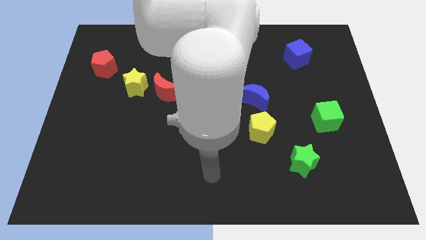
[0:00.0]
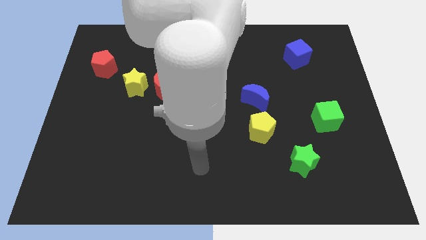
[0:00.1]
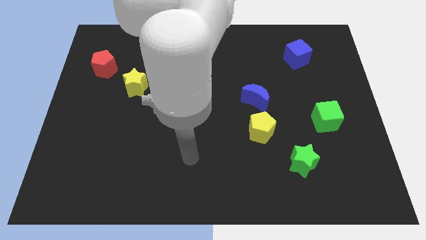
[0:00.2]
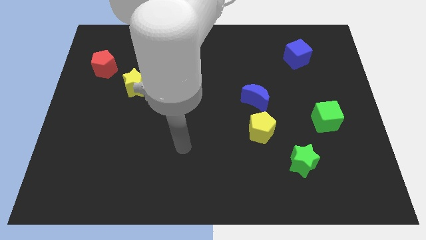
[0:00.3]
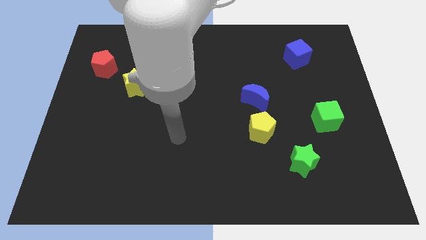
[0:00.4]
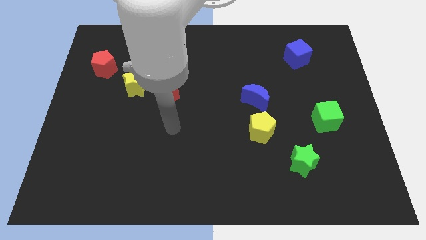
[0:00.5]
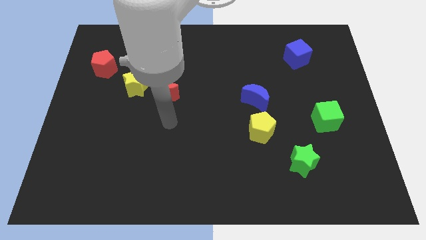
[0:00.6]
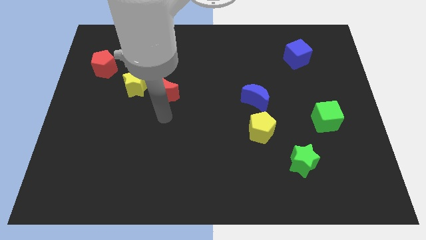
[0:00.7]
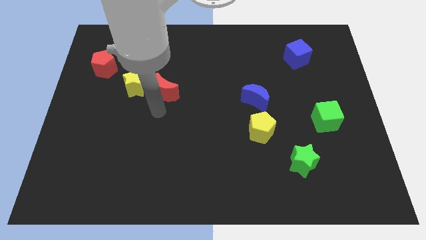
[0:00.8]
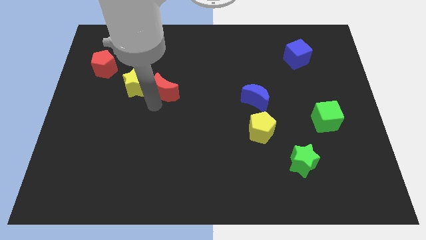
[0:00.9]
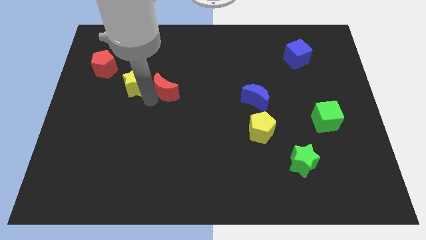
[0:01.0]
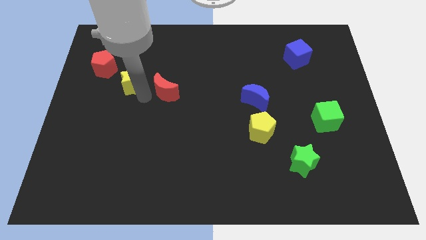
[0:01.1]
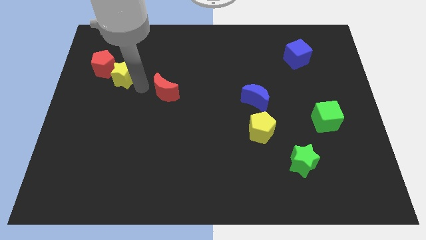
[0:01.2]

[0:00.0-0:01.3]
move the red moon away from the yellow star

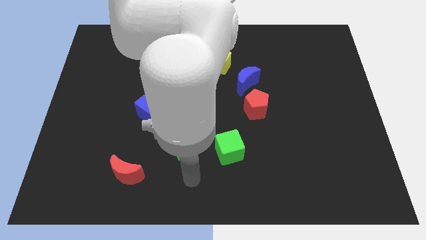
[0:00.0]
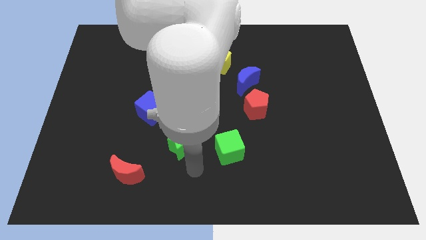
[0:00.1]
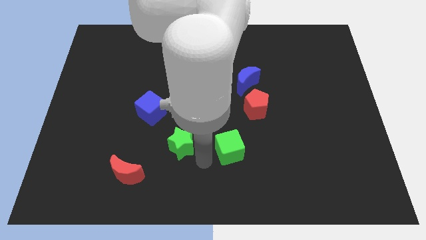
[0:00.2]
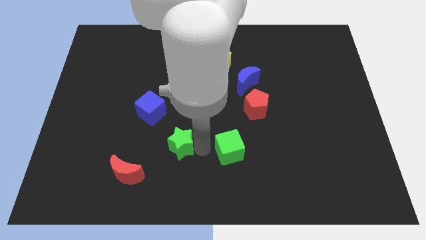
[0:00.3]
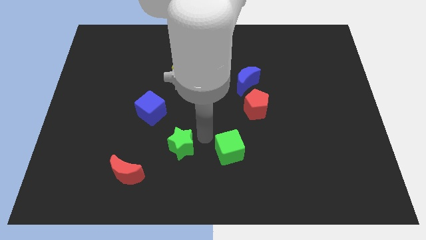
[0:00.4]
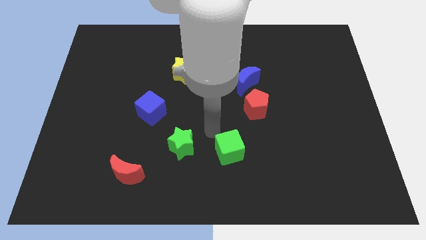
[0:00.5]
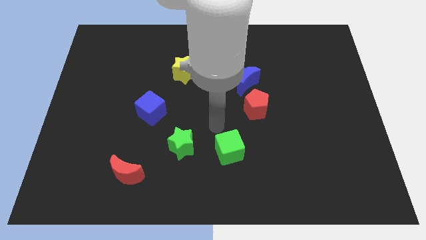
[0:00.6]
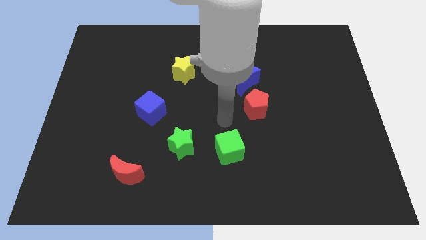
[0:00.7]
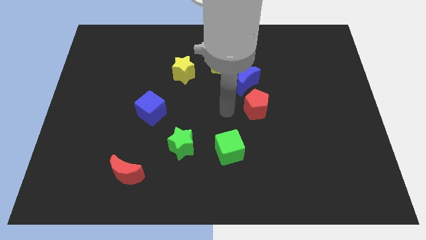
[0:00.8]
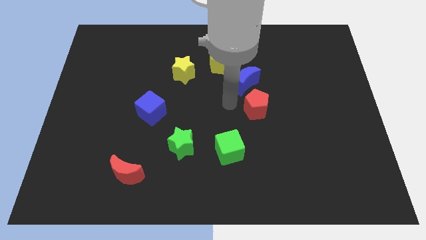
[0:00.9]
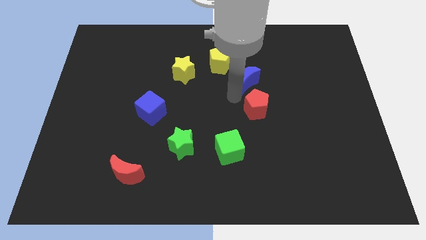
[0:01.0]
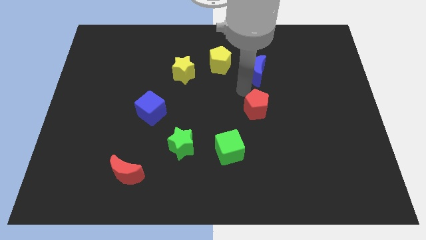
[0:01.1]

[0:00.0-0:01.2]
pull the red pentagon apart from the blue moon

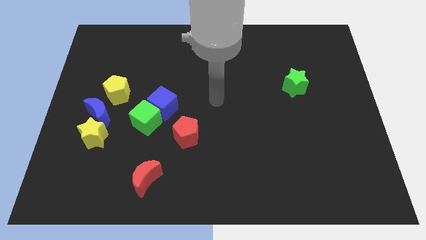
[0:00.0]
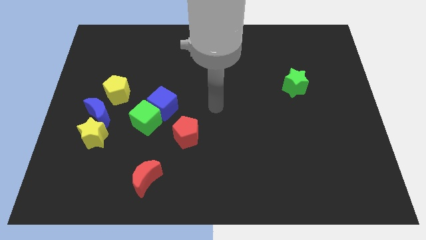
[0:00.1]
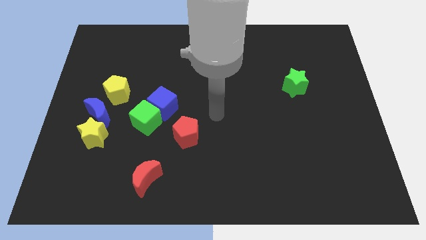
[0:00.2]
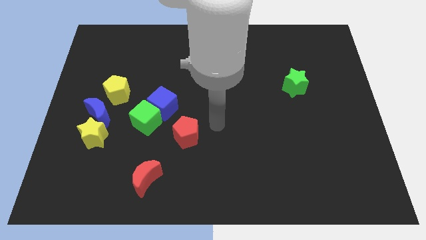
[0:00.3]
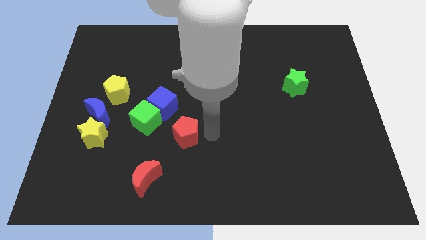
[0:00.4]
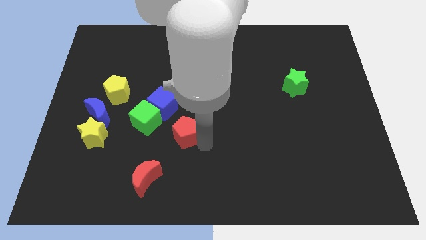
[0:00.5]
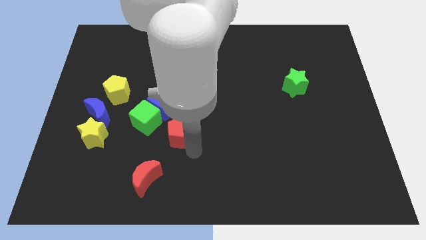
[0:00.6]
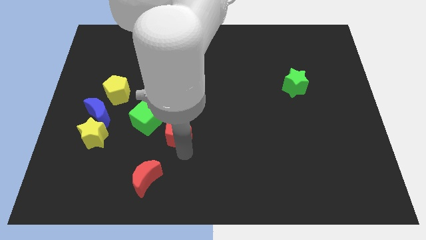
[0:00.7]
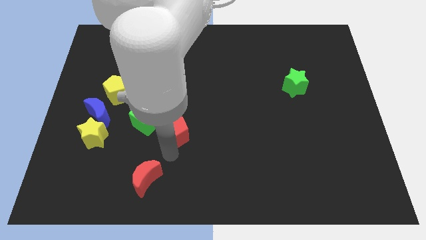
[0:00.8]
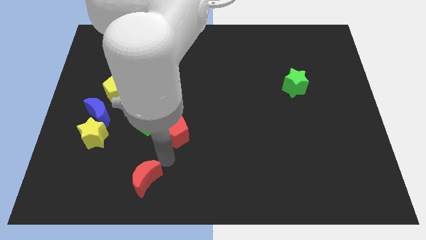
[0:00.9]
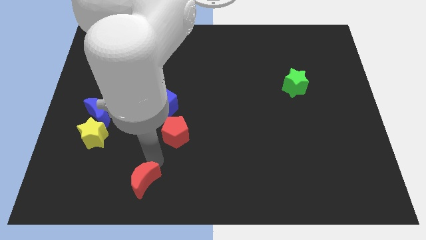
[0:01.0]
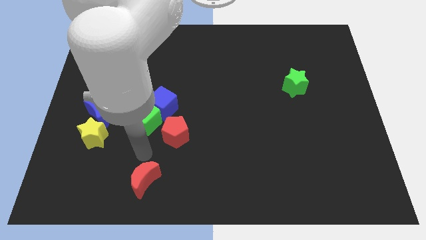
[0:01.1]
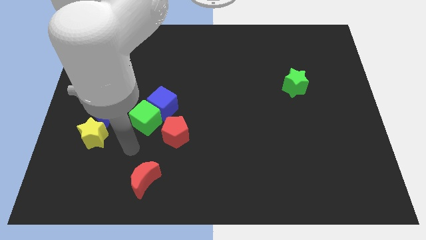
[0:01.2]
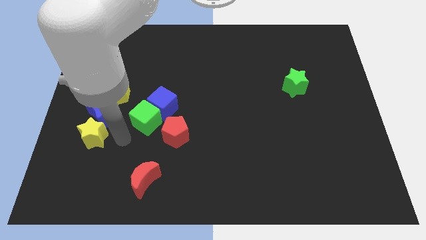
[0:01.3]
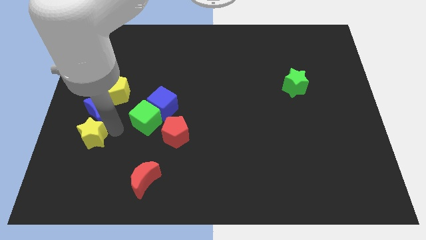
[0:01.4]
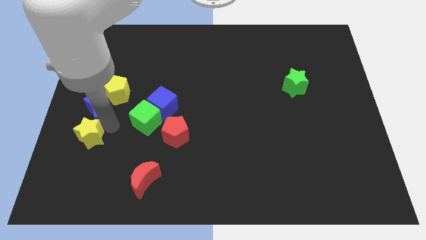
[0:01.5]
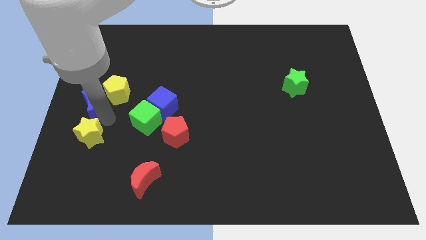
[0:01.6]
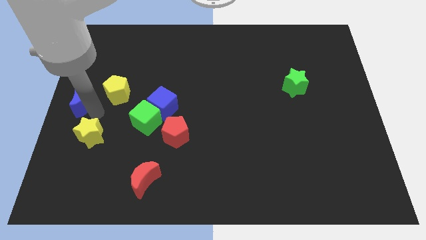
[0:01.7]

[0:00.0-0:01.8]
separate the yellow star from the blue moon

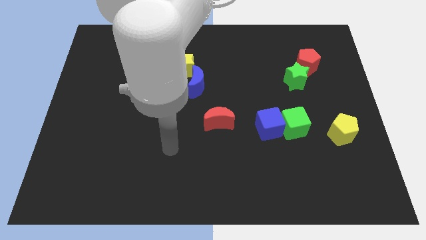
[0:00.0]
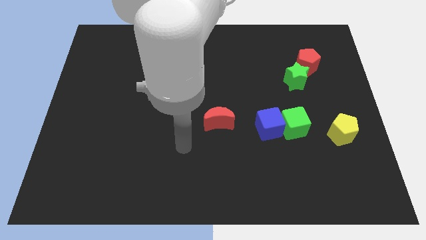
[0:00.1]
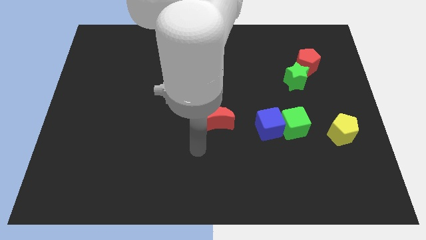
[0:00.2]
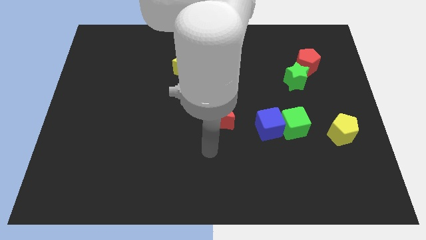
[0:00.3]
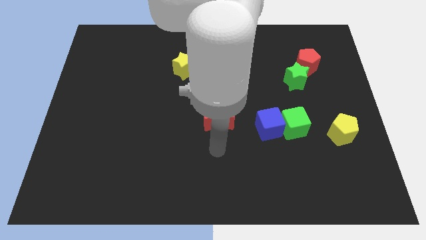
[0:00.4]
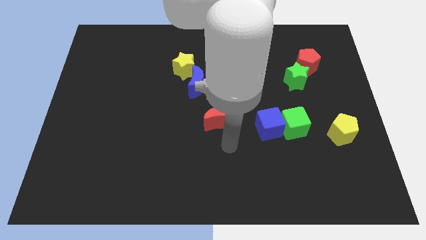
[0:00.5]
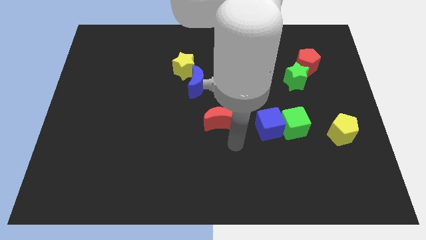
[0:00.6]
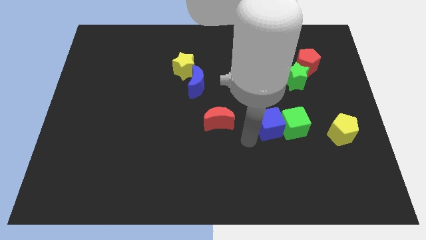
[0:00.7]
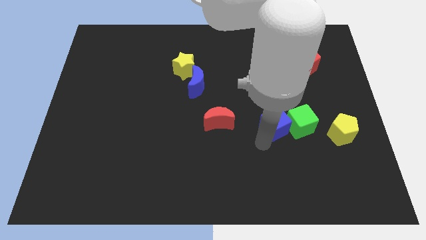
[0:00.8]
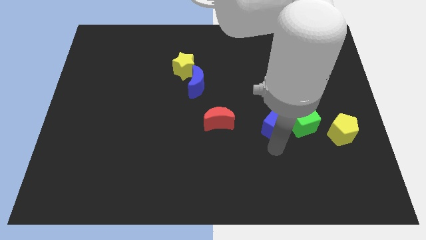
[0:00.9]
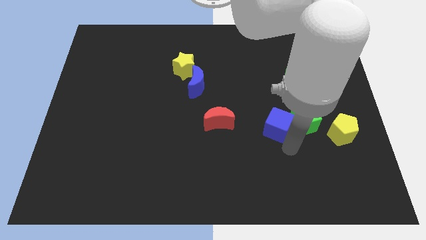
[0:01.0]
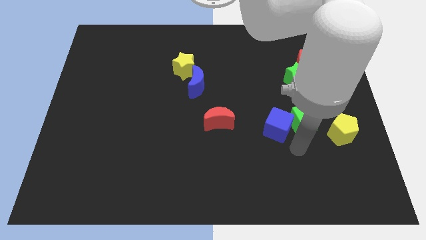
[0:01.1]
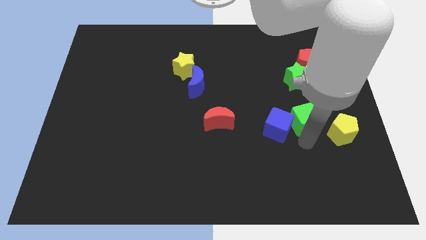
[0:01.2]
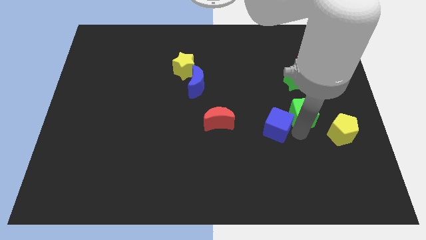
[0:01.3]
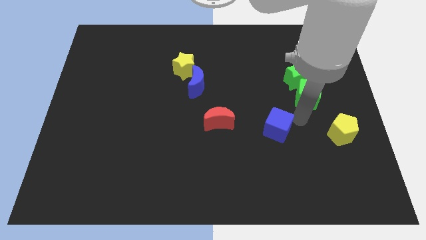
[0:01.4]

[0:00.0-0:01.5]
move the blue cube away from the green cube

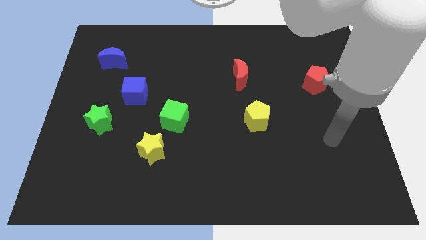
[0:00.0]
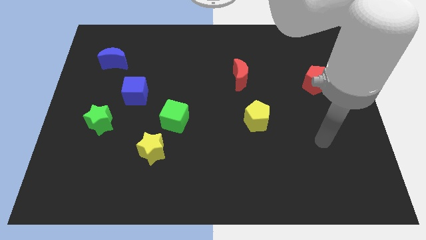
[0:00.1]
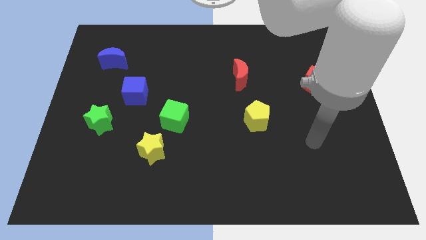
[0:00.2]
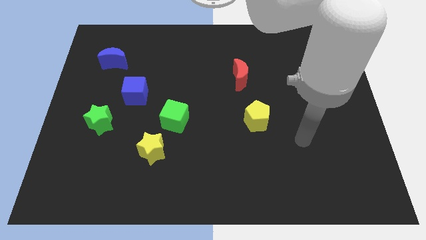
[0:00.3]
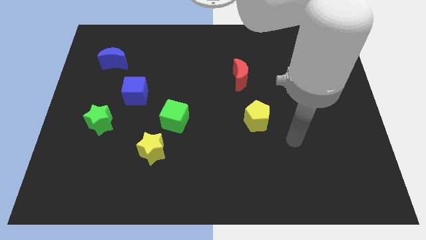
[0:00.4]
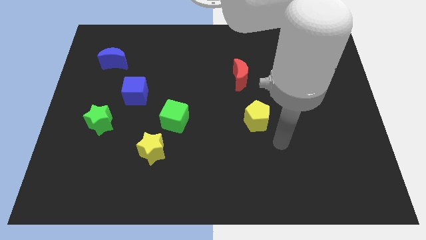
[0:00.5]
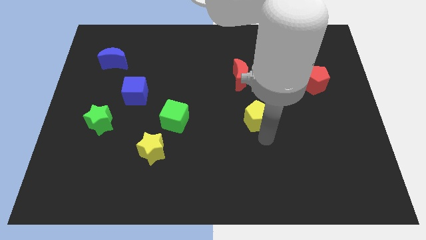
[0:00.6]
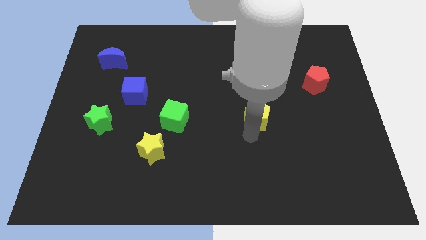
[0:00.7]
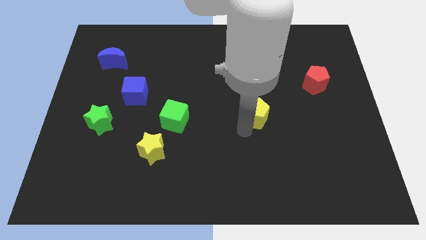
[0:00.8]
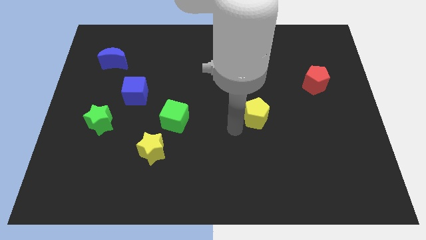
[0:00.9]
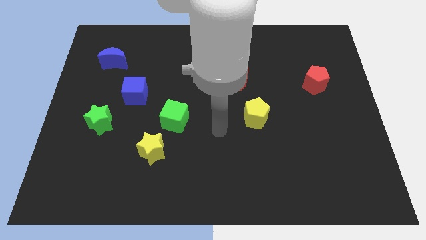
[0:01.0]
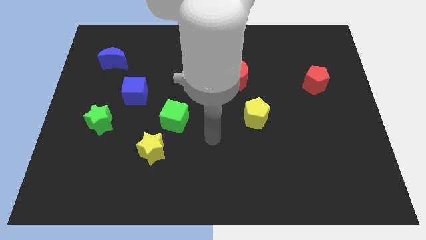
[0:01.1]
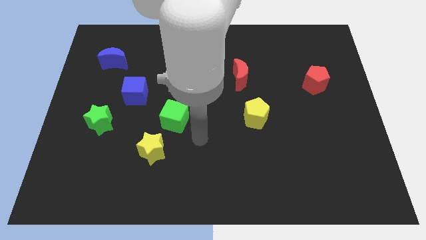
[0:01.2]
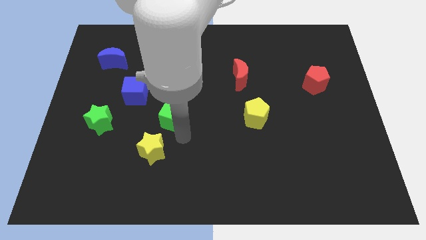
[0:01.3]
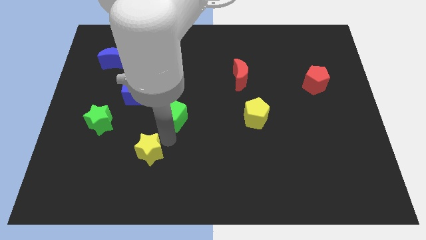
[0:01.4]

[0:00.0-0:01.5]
pull the green cube apart from the yellow star

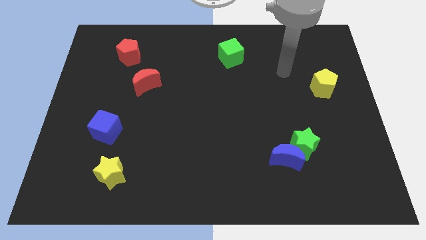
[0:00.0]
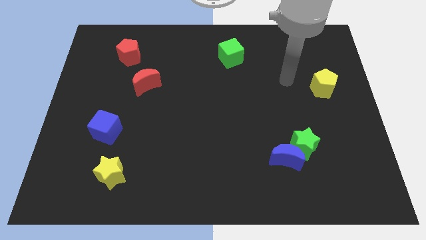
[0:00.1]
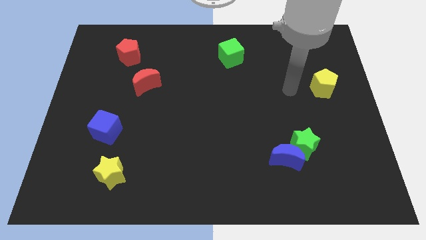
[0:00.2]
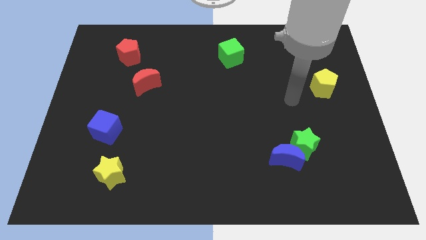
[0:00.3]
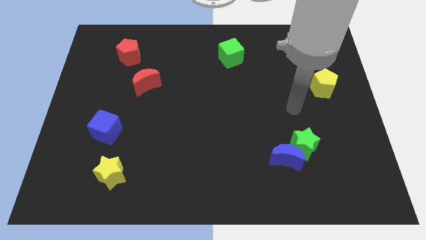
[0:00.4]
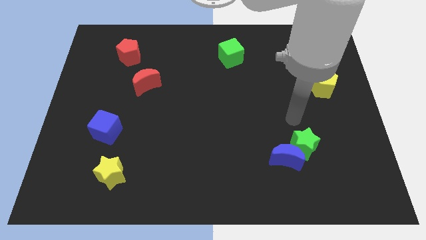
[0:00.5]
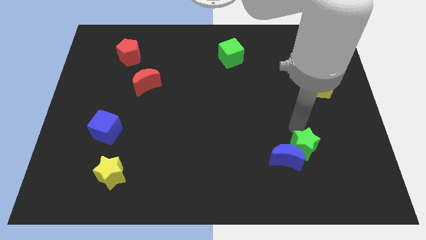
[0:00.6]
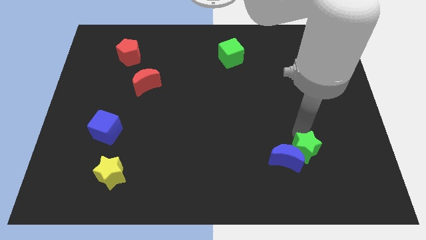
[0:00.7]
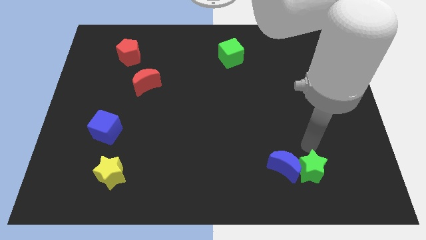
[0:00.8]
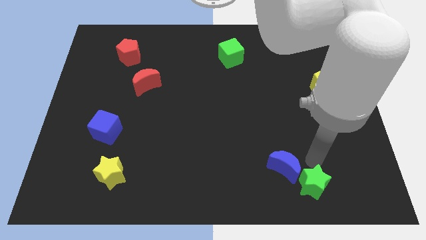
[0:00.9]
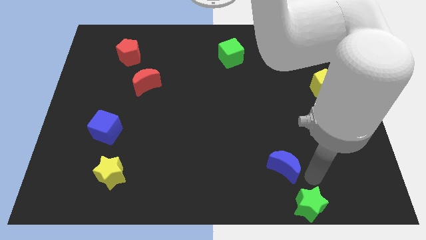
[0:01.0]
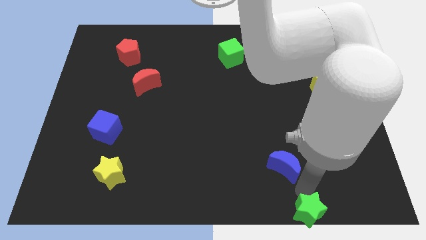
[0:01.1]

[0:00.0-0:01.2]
separate the blue moon from the green star

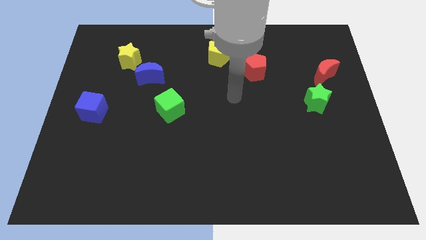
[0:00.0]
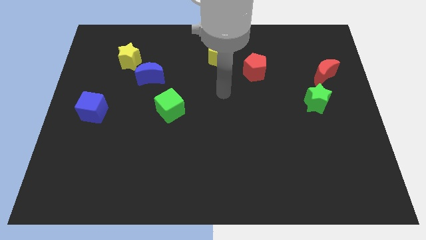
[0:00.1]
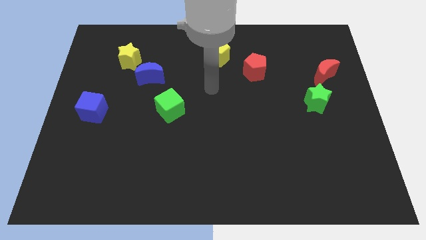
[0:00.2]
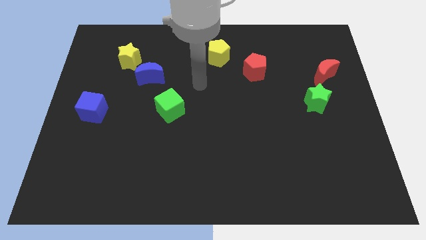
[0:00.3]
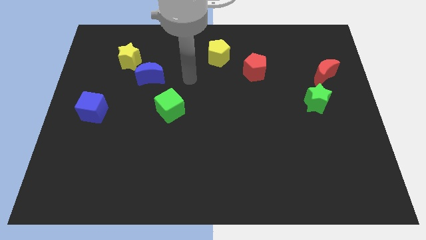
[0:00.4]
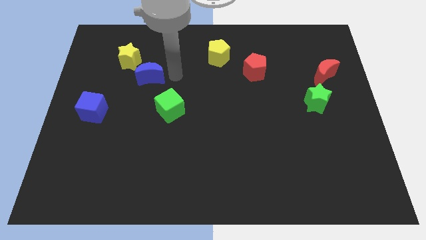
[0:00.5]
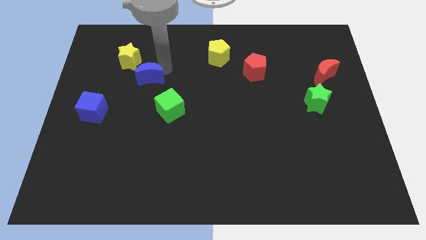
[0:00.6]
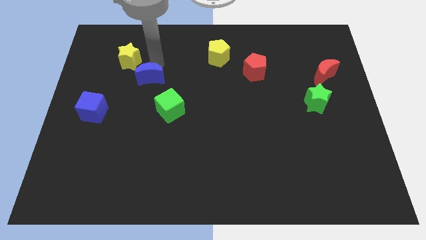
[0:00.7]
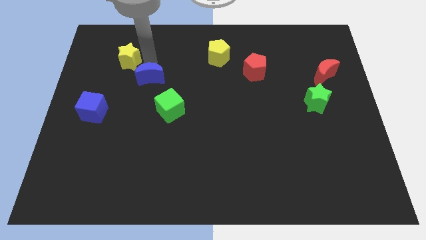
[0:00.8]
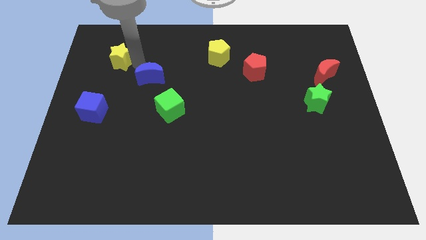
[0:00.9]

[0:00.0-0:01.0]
pull the blue moon apart from the yellow star
